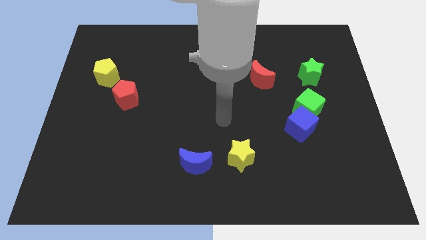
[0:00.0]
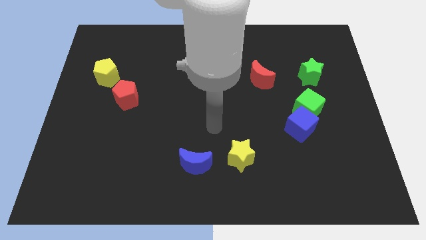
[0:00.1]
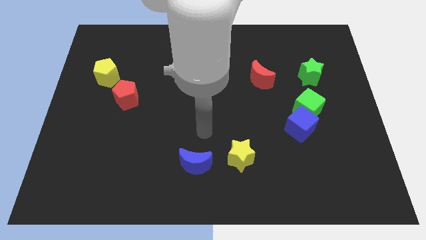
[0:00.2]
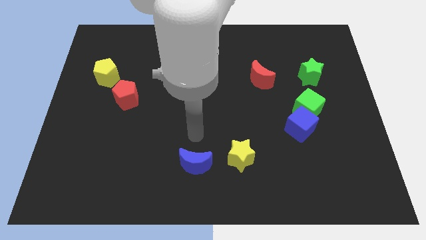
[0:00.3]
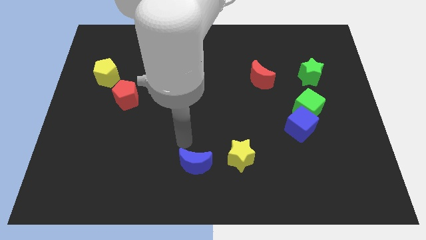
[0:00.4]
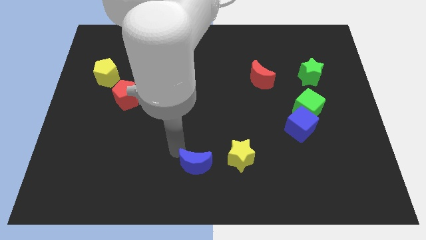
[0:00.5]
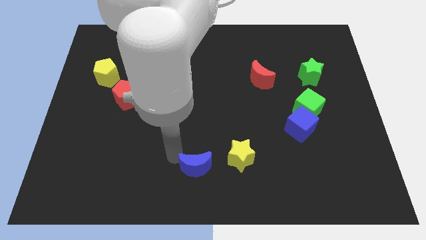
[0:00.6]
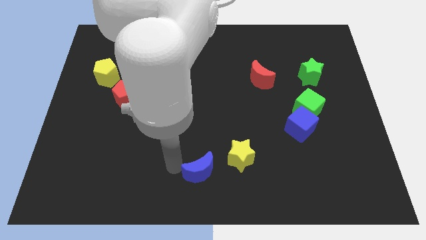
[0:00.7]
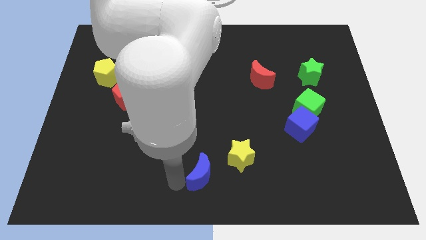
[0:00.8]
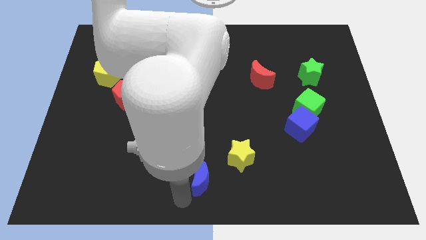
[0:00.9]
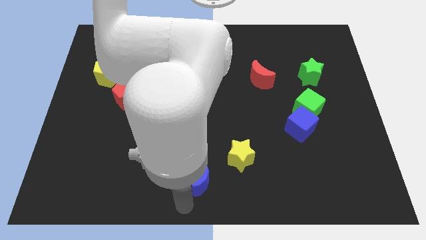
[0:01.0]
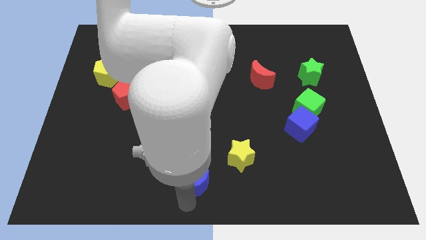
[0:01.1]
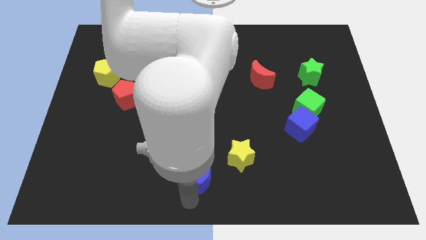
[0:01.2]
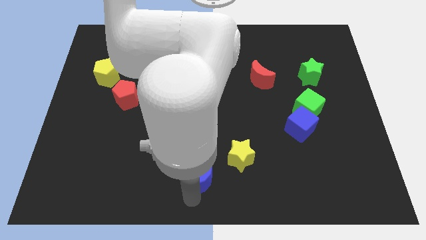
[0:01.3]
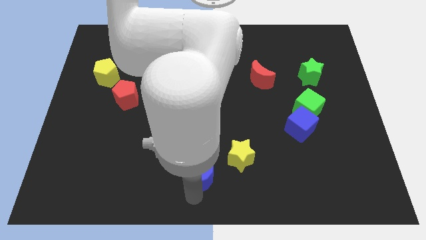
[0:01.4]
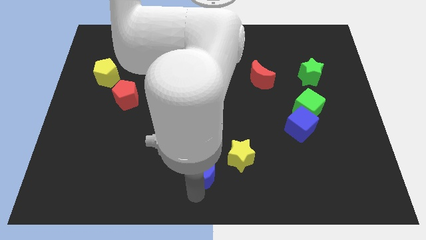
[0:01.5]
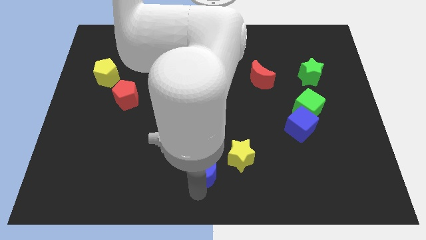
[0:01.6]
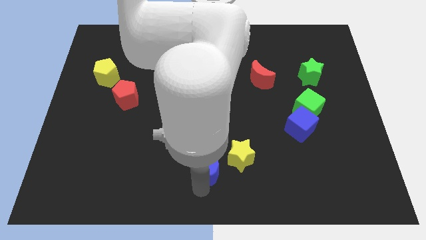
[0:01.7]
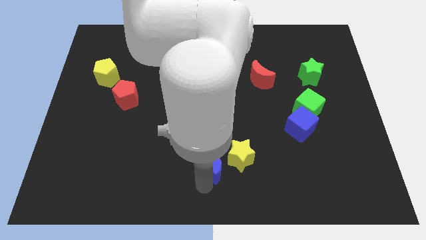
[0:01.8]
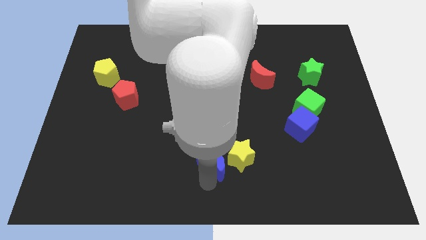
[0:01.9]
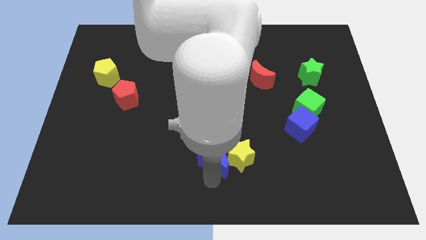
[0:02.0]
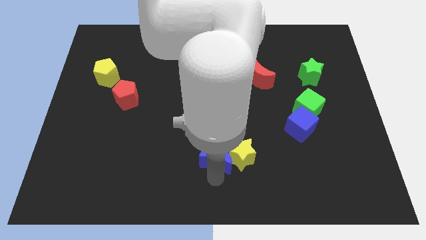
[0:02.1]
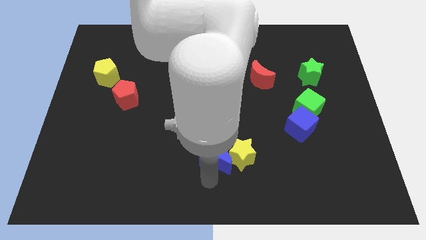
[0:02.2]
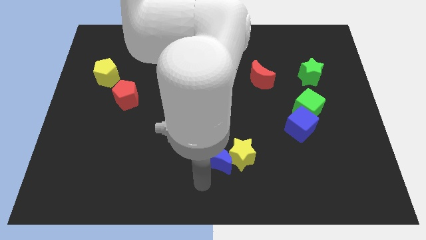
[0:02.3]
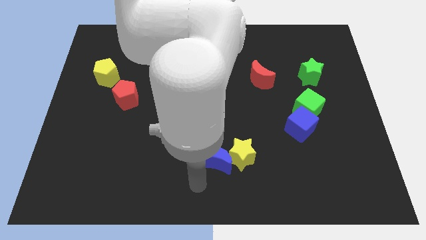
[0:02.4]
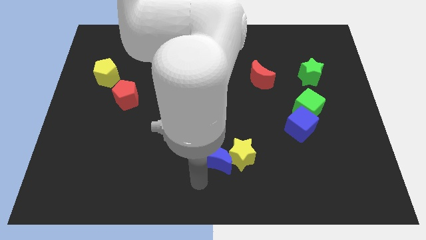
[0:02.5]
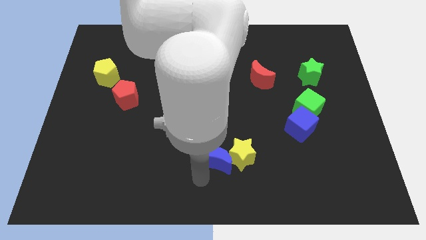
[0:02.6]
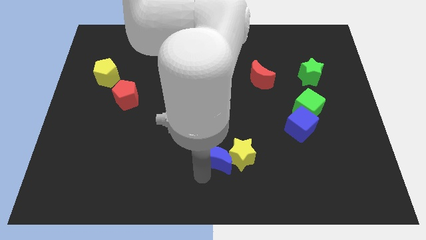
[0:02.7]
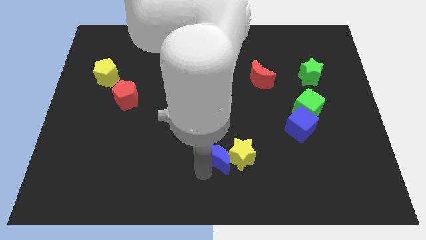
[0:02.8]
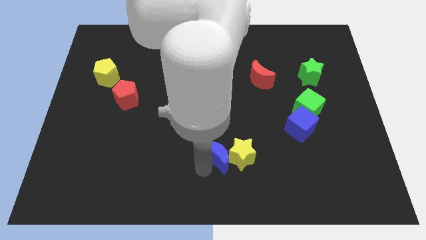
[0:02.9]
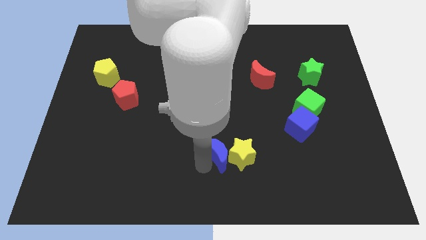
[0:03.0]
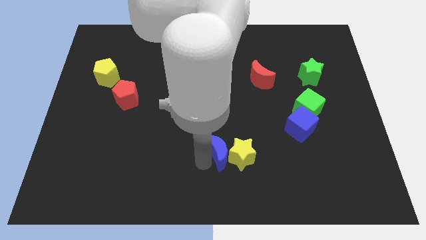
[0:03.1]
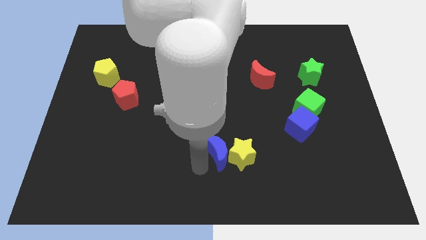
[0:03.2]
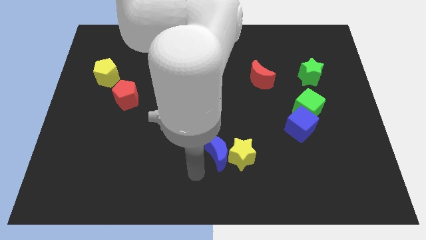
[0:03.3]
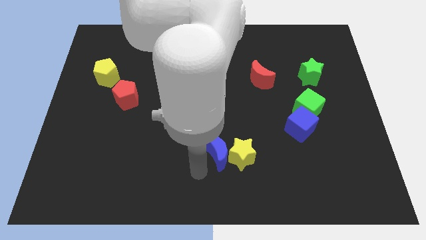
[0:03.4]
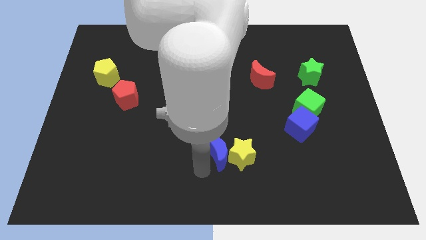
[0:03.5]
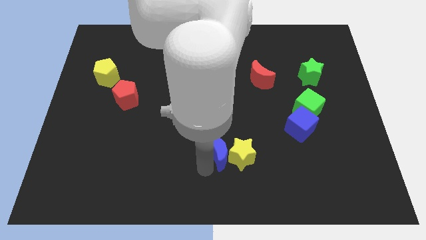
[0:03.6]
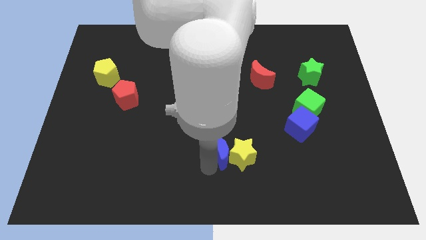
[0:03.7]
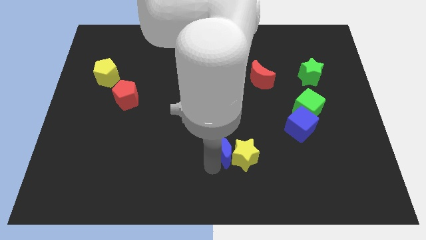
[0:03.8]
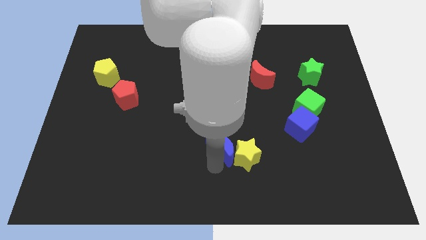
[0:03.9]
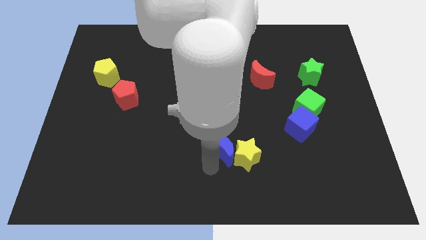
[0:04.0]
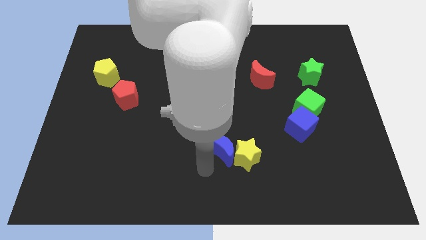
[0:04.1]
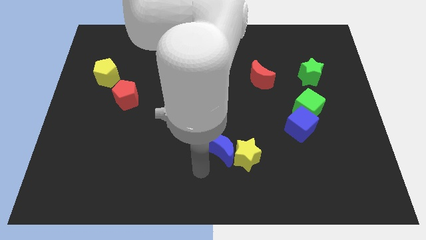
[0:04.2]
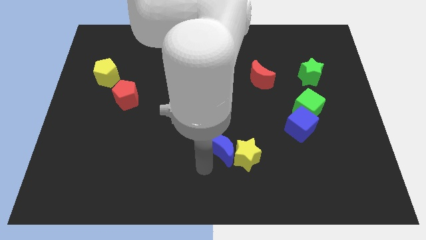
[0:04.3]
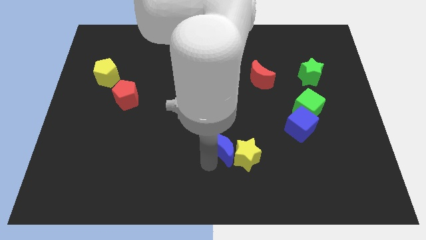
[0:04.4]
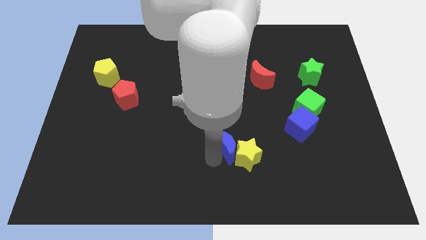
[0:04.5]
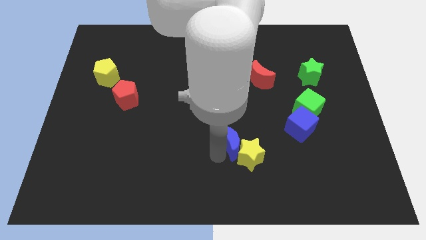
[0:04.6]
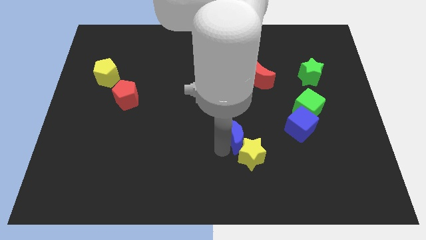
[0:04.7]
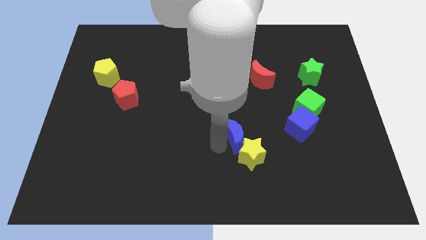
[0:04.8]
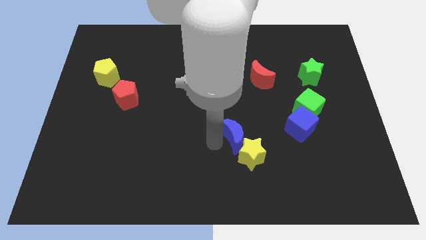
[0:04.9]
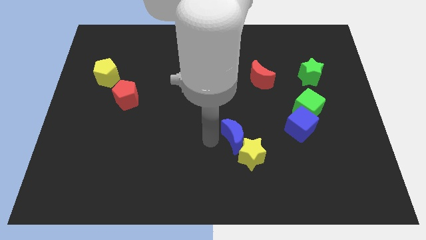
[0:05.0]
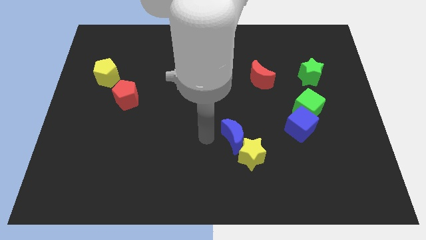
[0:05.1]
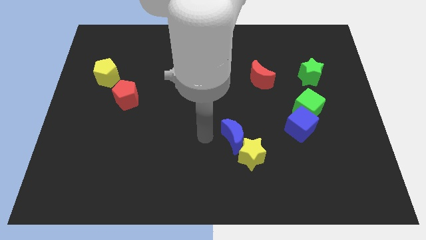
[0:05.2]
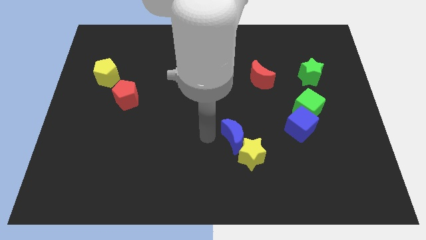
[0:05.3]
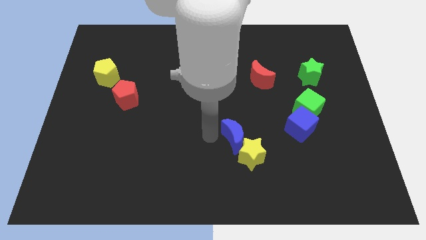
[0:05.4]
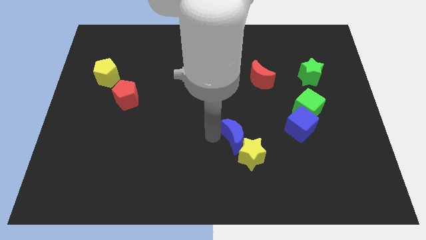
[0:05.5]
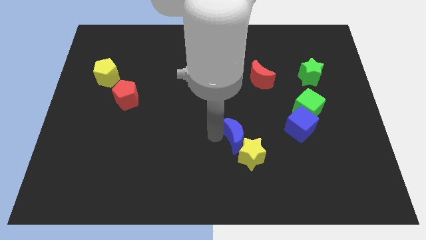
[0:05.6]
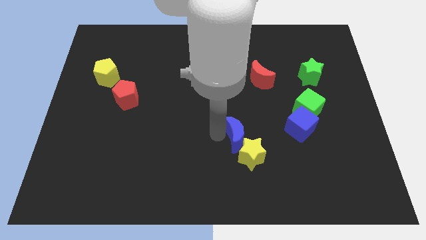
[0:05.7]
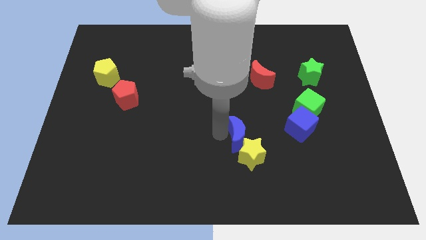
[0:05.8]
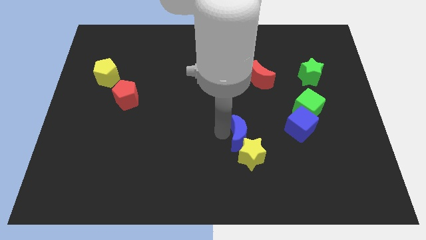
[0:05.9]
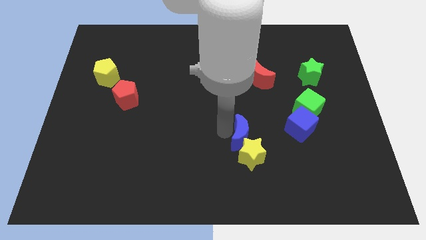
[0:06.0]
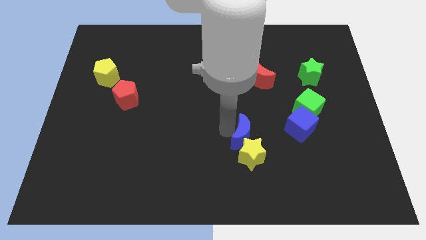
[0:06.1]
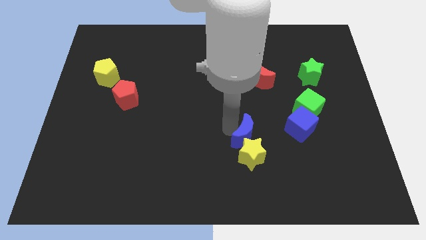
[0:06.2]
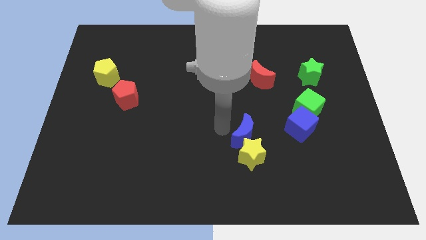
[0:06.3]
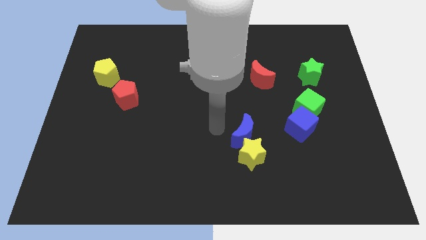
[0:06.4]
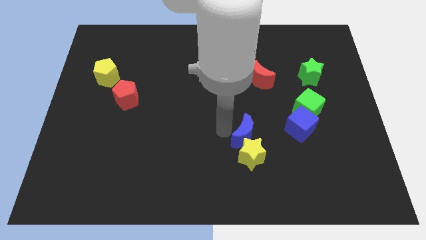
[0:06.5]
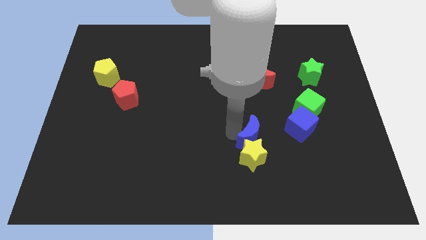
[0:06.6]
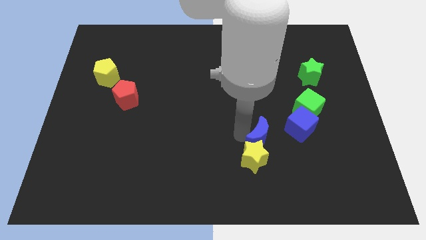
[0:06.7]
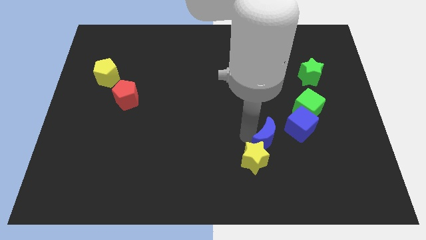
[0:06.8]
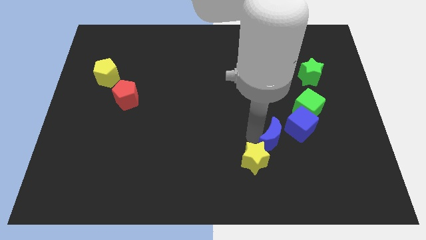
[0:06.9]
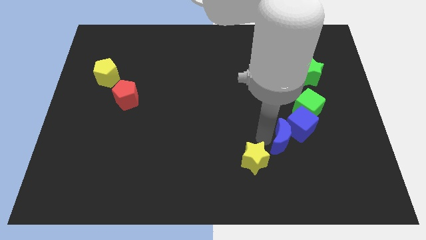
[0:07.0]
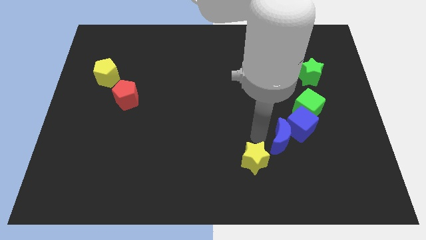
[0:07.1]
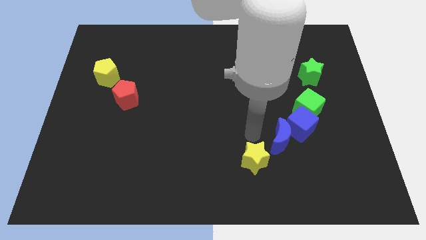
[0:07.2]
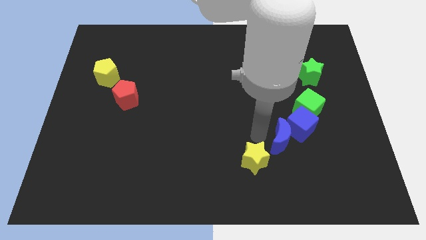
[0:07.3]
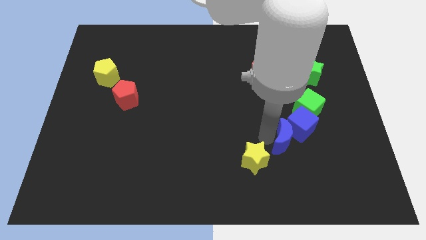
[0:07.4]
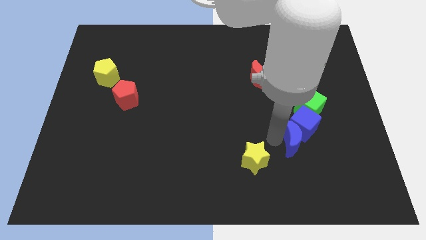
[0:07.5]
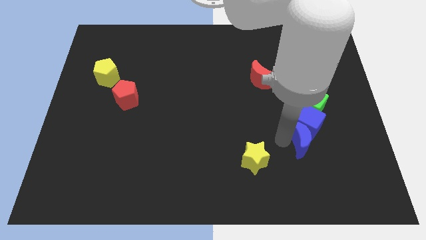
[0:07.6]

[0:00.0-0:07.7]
move the blue moon below the green cube
